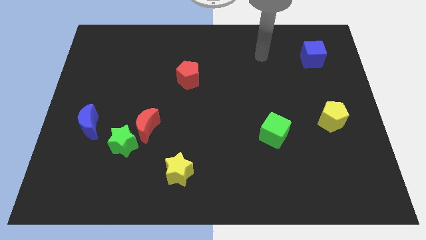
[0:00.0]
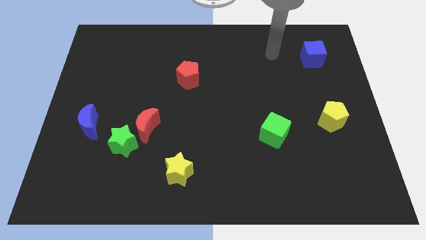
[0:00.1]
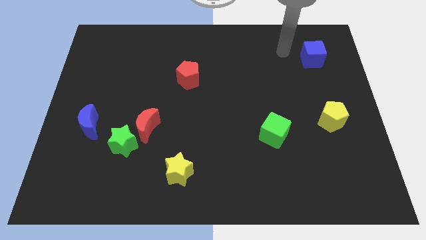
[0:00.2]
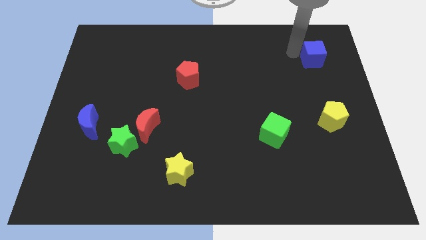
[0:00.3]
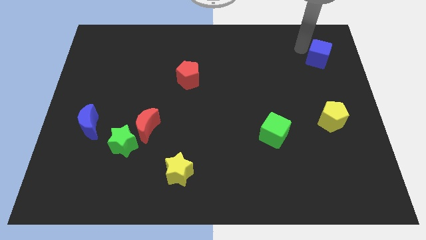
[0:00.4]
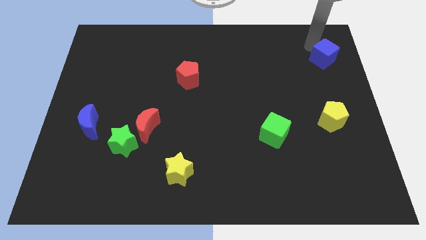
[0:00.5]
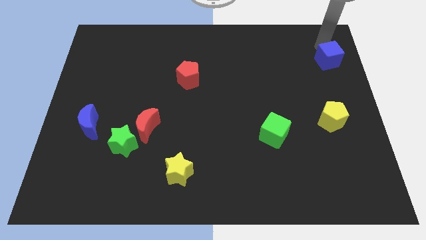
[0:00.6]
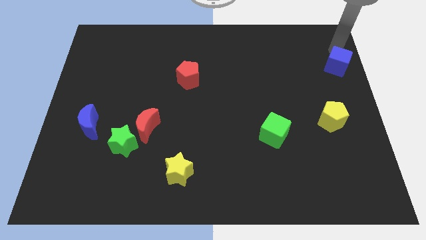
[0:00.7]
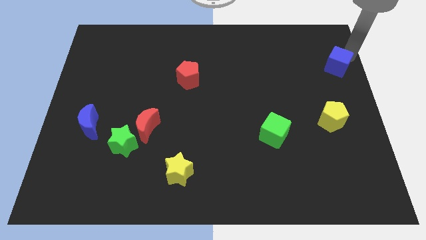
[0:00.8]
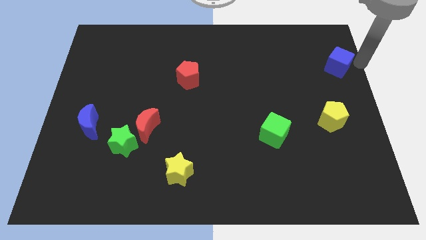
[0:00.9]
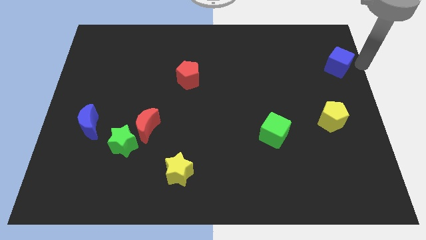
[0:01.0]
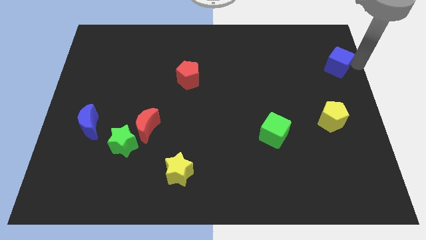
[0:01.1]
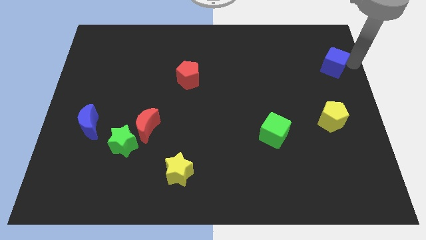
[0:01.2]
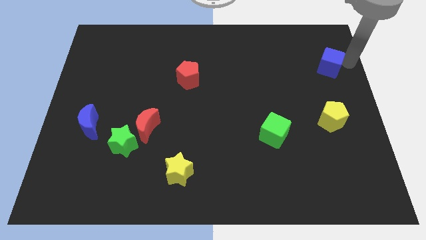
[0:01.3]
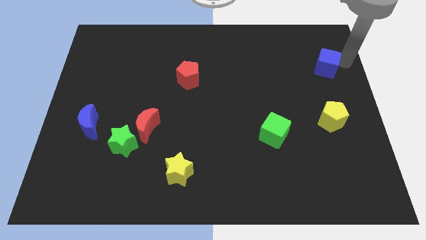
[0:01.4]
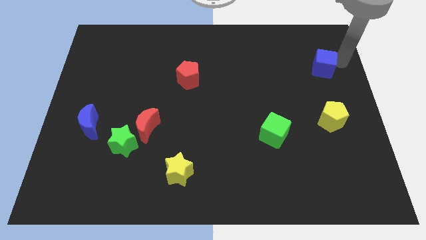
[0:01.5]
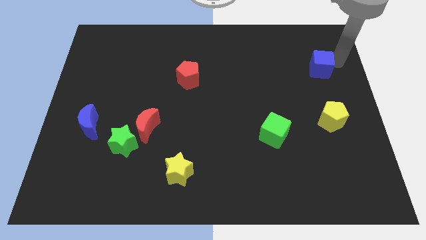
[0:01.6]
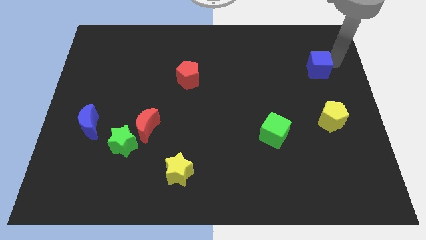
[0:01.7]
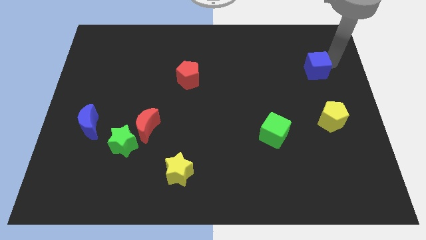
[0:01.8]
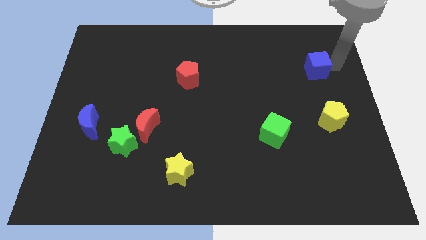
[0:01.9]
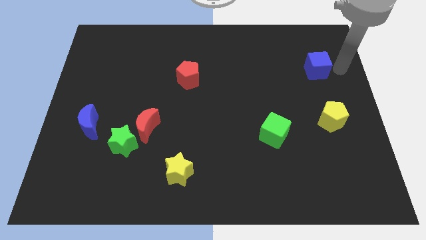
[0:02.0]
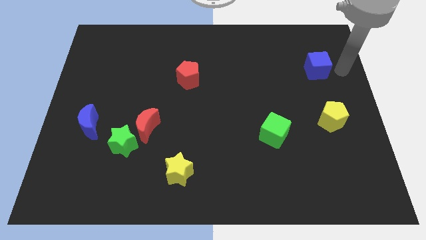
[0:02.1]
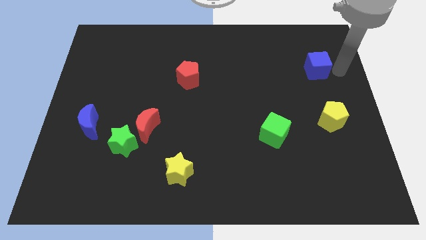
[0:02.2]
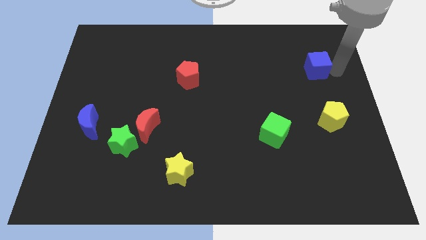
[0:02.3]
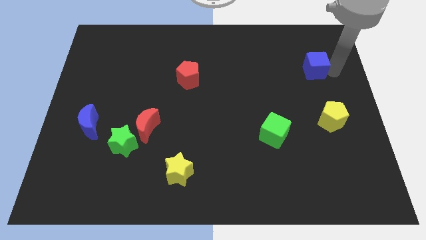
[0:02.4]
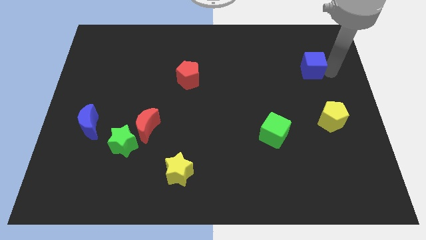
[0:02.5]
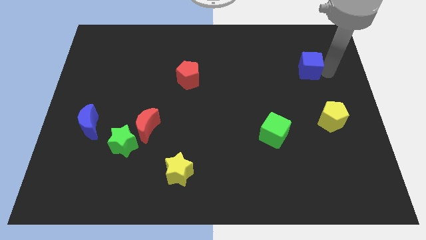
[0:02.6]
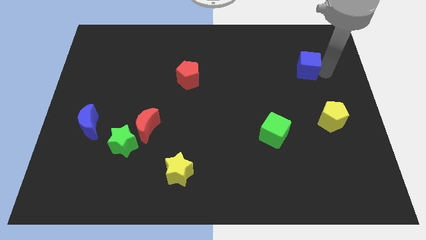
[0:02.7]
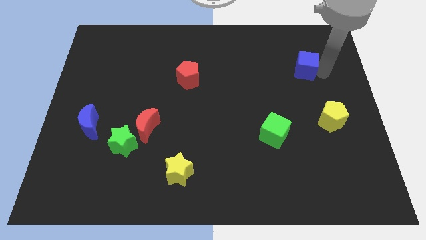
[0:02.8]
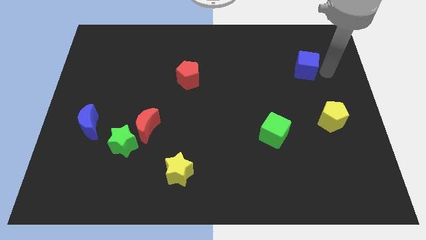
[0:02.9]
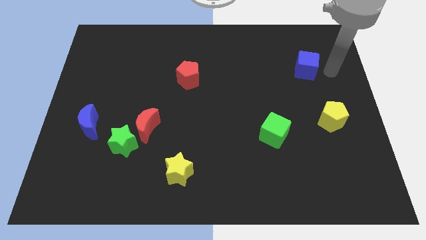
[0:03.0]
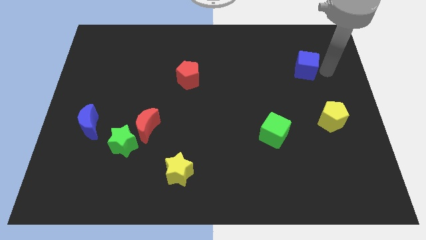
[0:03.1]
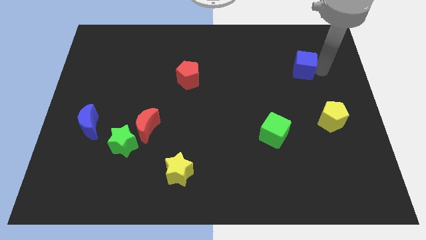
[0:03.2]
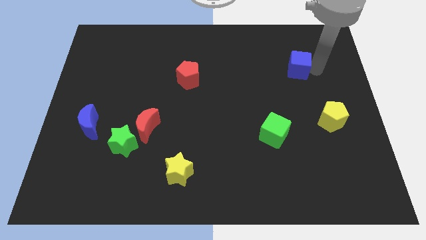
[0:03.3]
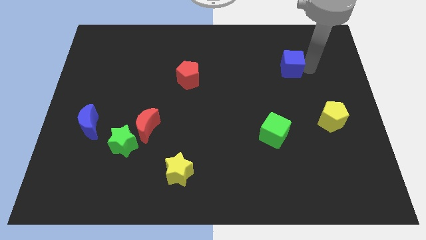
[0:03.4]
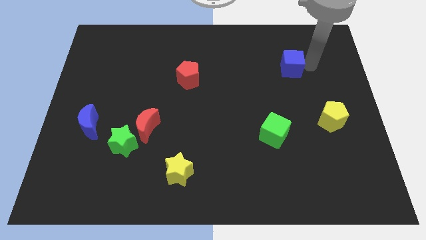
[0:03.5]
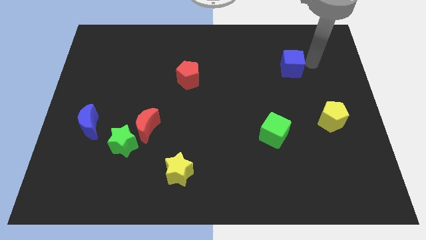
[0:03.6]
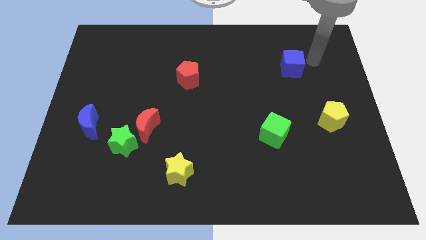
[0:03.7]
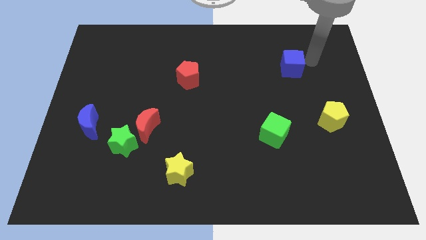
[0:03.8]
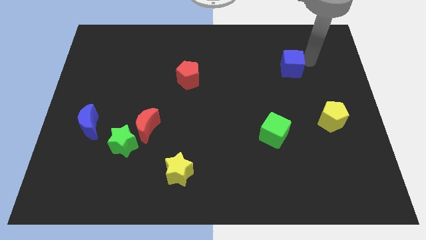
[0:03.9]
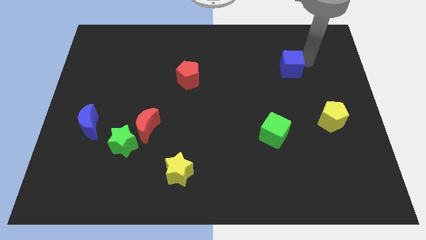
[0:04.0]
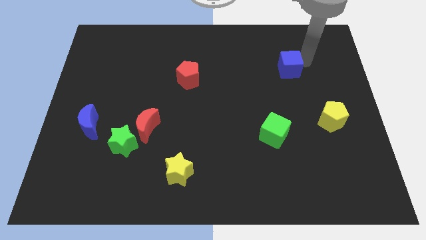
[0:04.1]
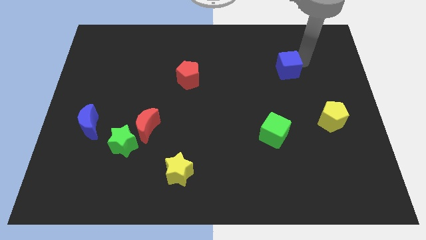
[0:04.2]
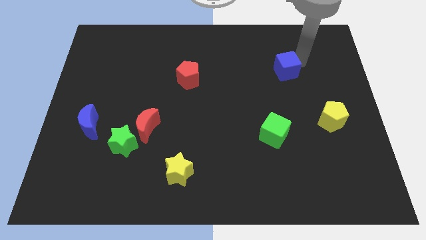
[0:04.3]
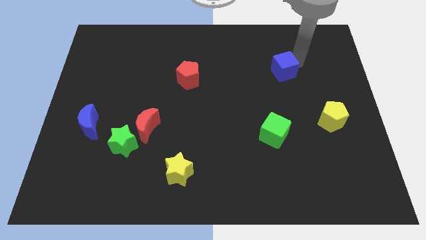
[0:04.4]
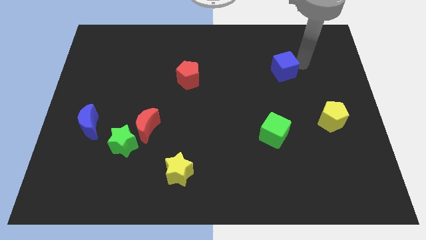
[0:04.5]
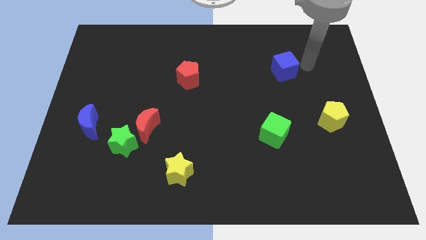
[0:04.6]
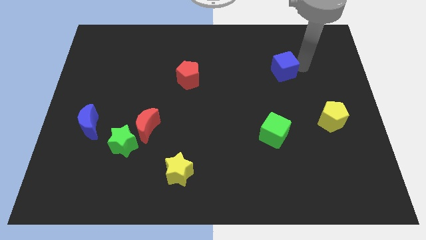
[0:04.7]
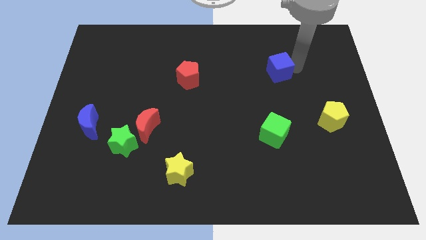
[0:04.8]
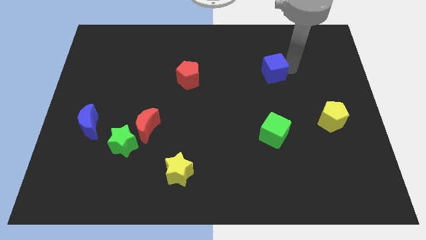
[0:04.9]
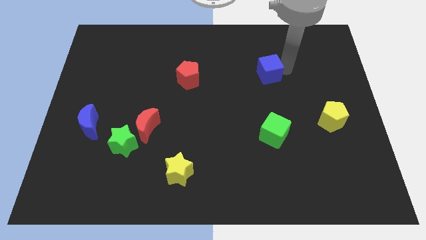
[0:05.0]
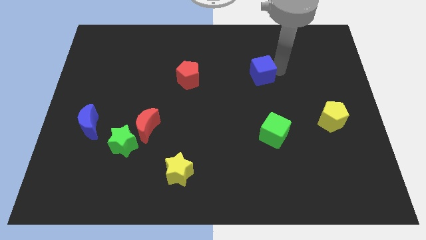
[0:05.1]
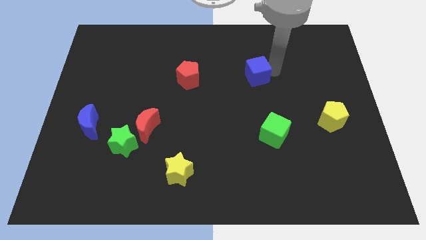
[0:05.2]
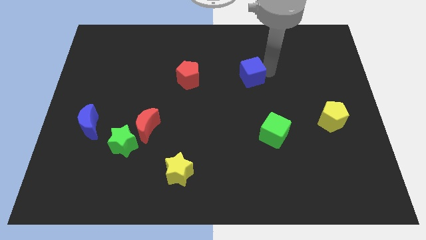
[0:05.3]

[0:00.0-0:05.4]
push the blue cube to the center of the board

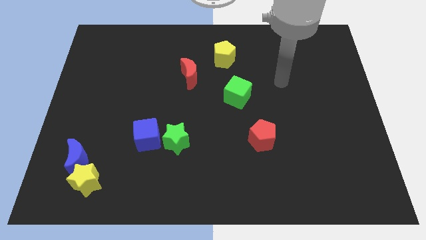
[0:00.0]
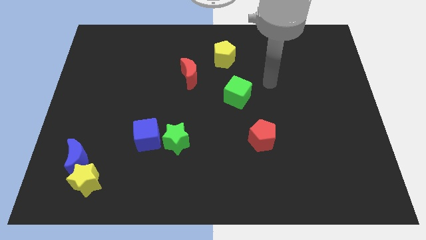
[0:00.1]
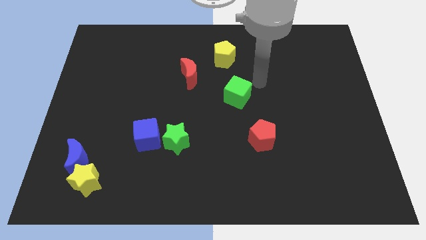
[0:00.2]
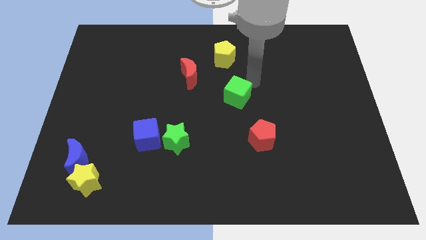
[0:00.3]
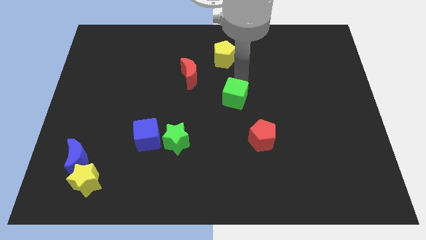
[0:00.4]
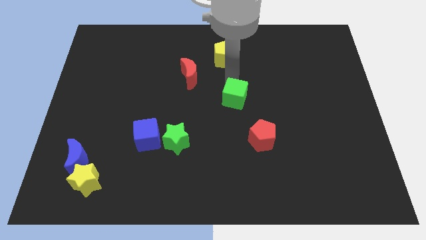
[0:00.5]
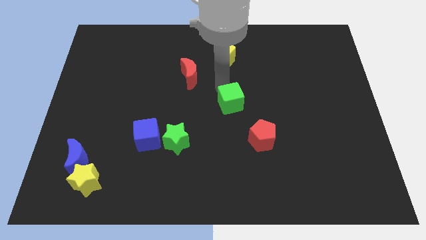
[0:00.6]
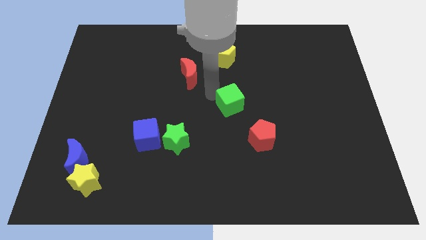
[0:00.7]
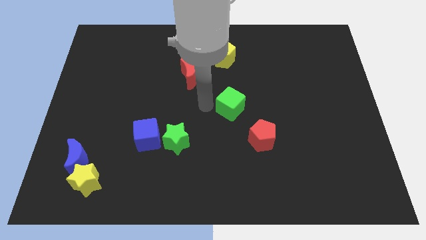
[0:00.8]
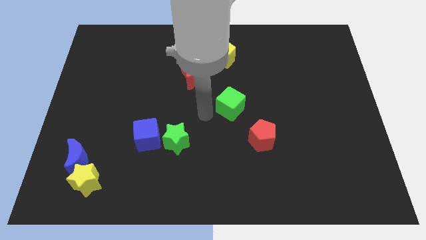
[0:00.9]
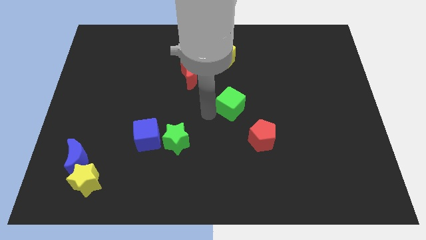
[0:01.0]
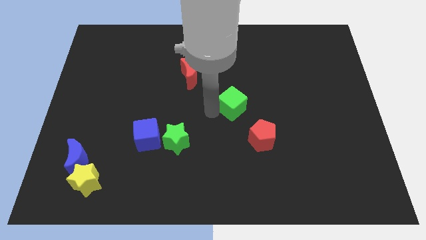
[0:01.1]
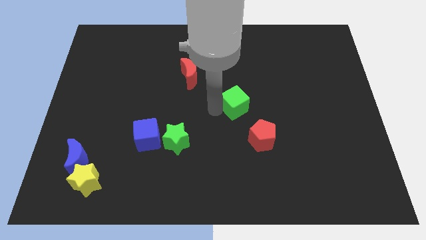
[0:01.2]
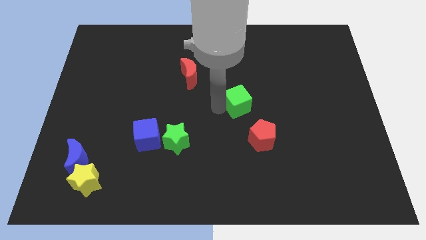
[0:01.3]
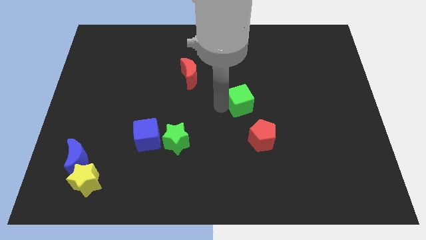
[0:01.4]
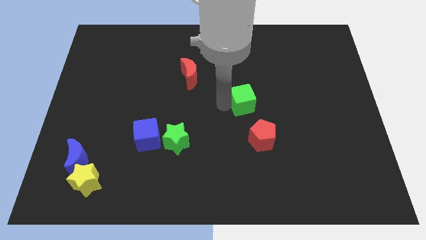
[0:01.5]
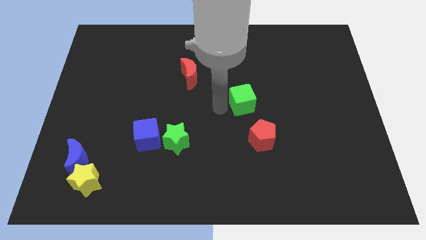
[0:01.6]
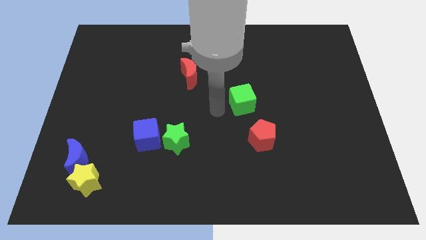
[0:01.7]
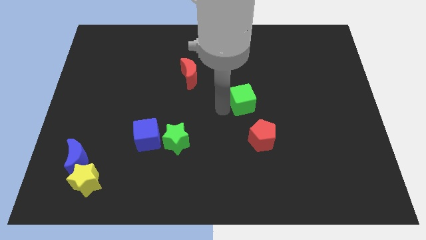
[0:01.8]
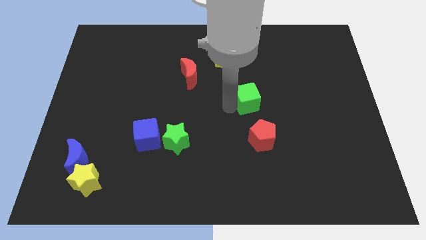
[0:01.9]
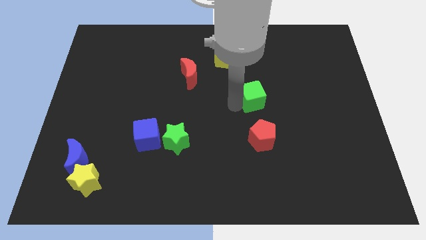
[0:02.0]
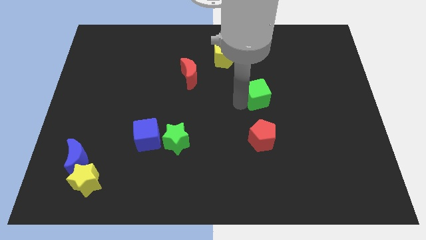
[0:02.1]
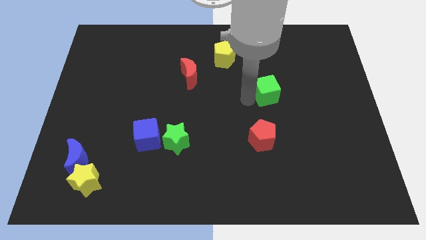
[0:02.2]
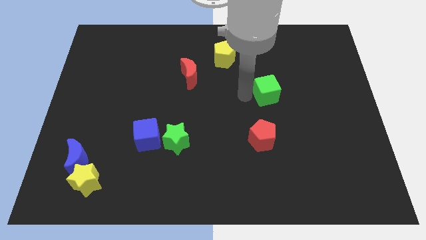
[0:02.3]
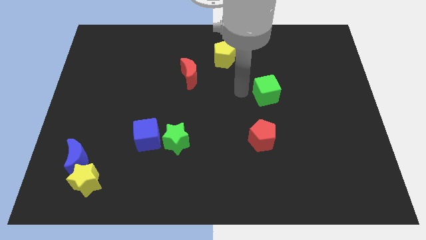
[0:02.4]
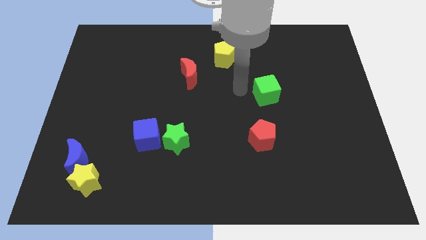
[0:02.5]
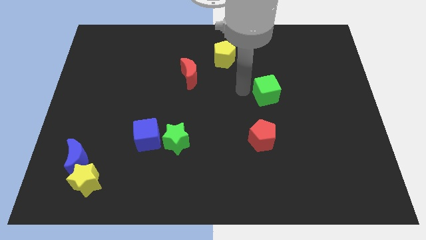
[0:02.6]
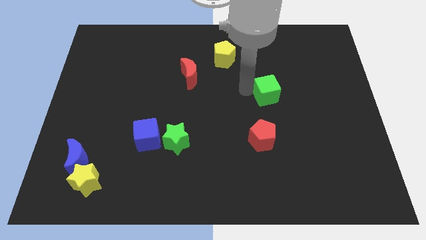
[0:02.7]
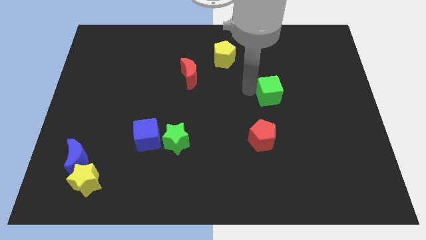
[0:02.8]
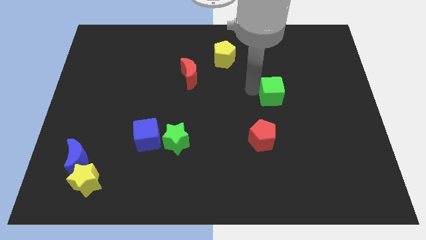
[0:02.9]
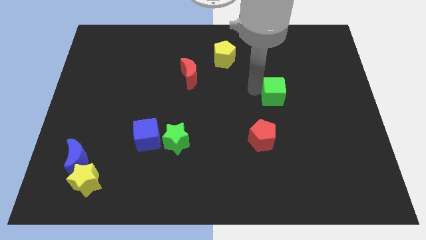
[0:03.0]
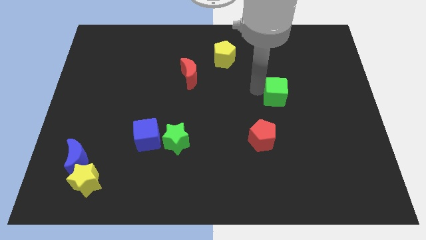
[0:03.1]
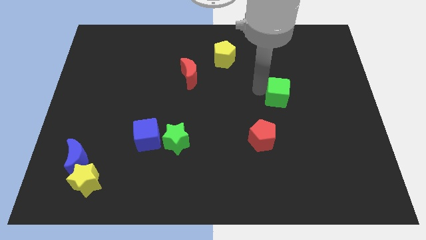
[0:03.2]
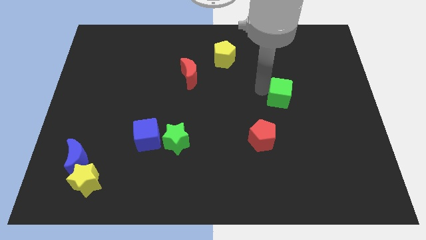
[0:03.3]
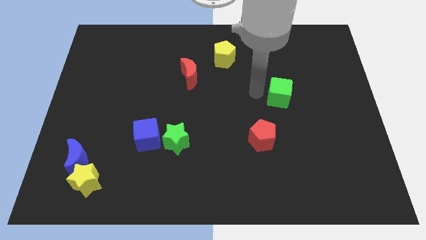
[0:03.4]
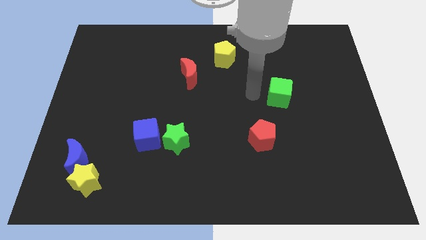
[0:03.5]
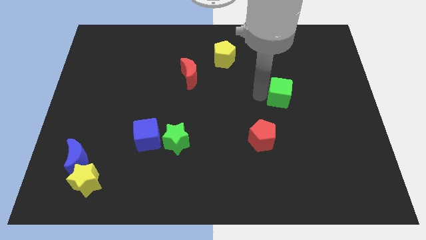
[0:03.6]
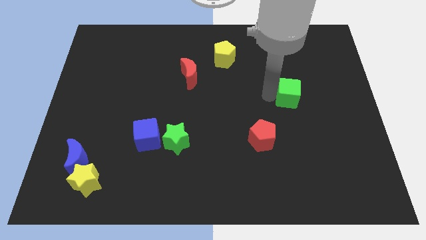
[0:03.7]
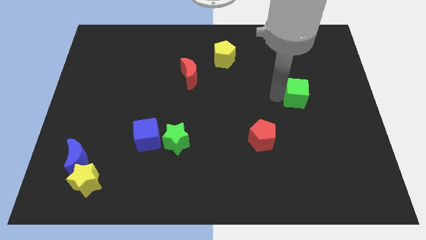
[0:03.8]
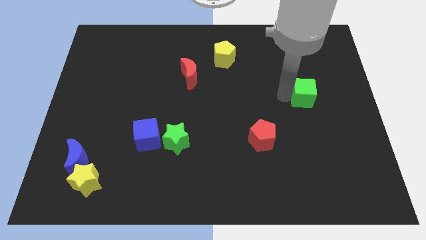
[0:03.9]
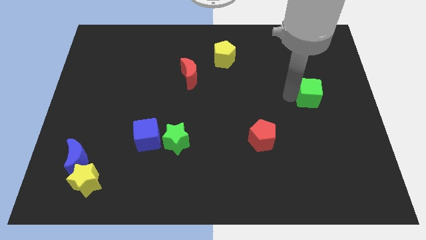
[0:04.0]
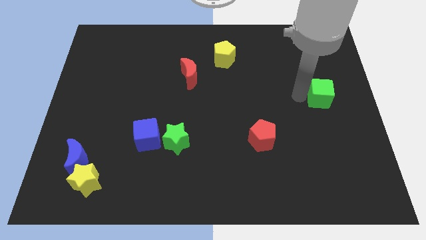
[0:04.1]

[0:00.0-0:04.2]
put the green cube to the right side
